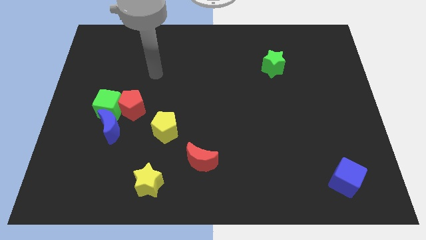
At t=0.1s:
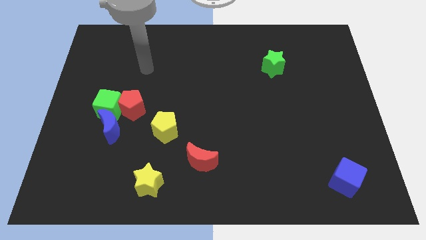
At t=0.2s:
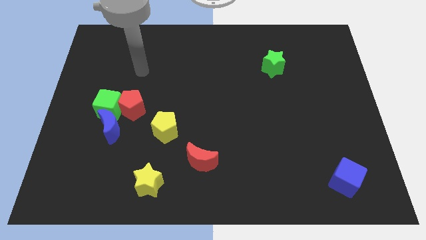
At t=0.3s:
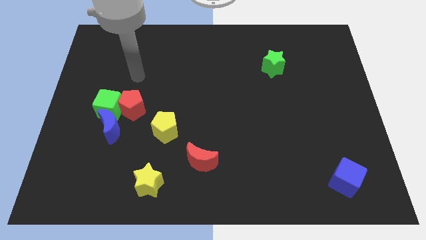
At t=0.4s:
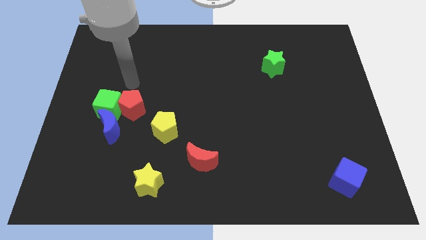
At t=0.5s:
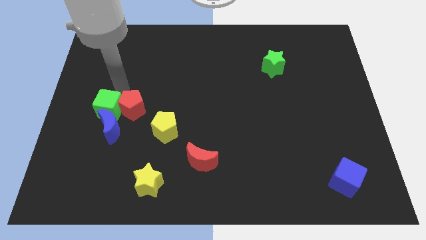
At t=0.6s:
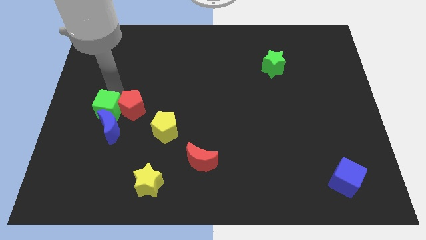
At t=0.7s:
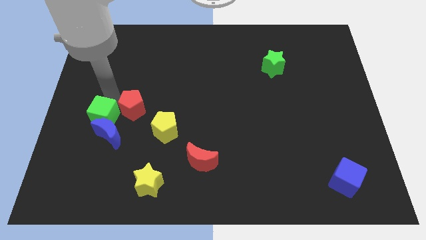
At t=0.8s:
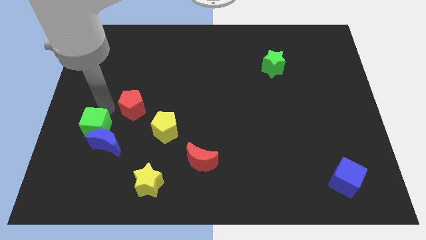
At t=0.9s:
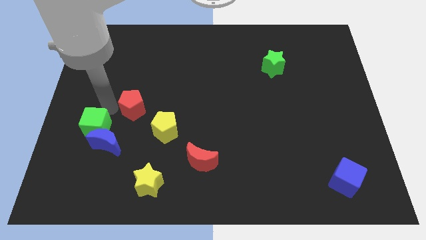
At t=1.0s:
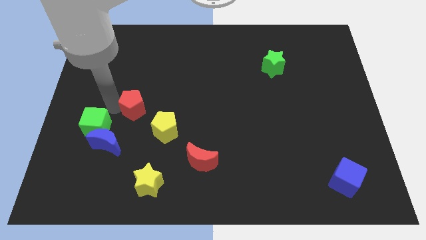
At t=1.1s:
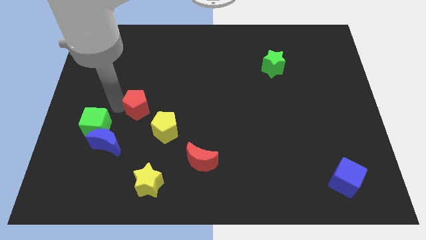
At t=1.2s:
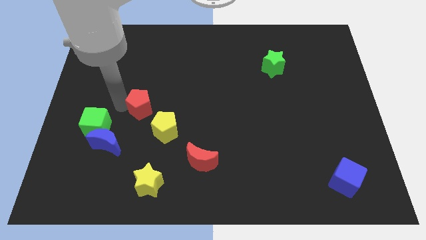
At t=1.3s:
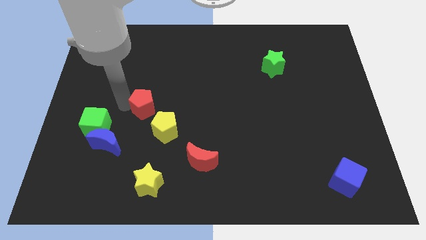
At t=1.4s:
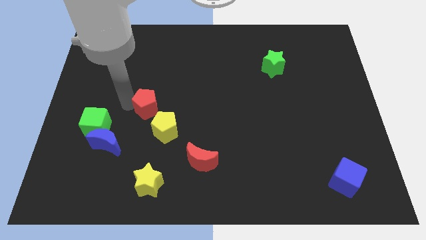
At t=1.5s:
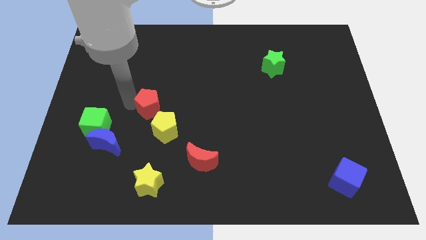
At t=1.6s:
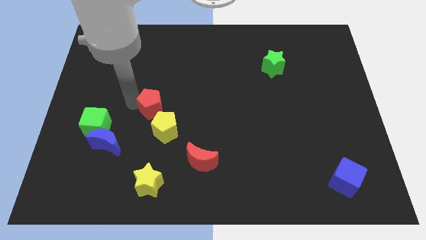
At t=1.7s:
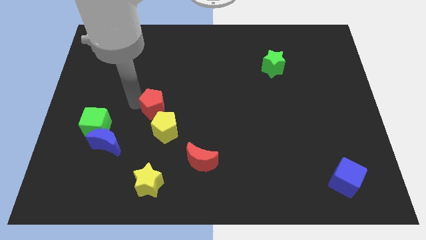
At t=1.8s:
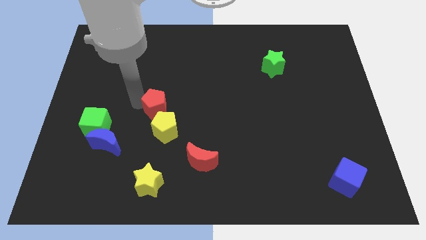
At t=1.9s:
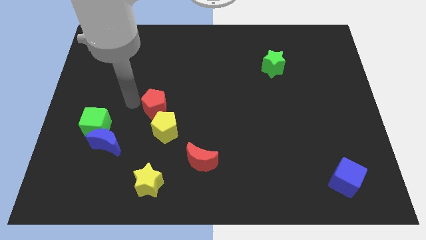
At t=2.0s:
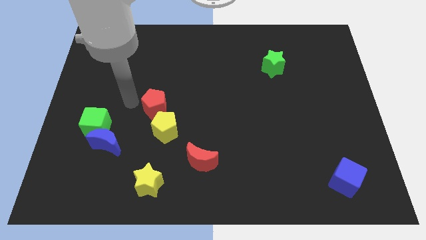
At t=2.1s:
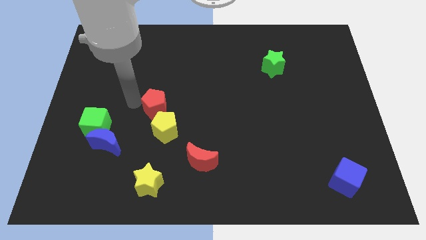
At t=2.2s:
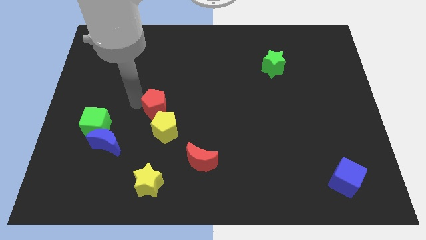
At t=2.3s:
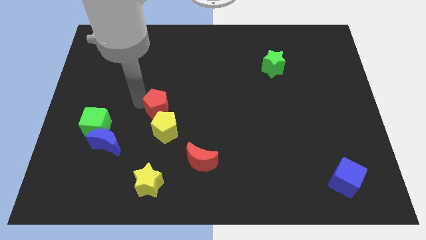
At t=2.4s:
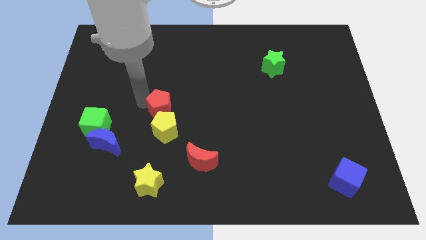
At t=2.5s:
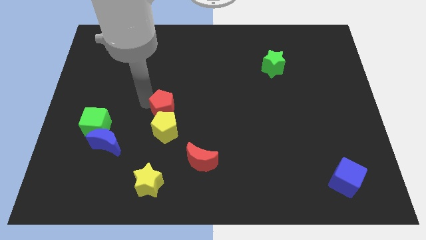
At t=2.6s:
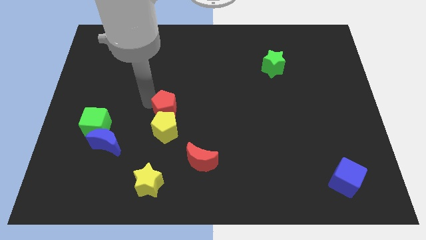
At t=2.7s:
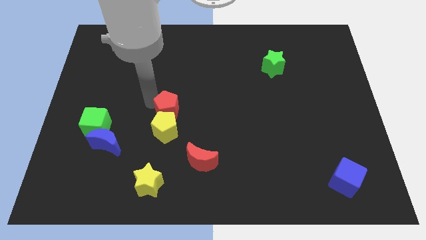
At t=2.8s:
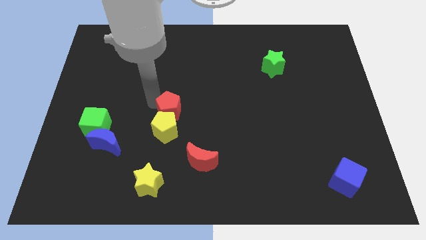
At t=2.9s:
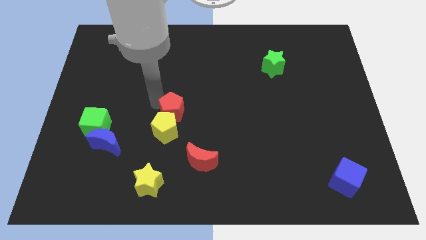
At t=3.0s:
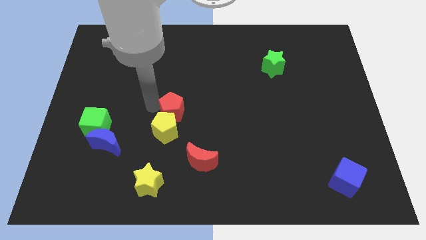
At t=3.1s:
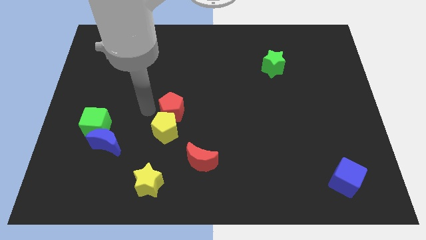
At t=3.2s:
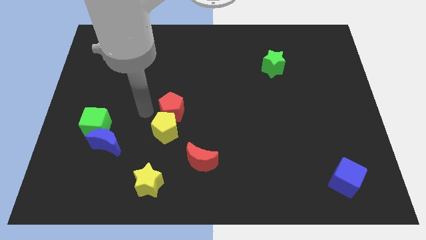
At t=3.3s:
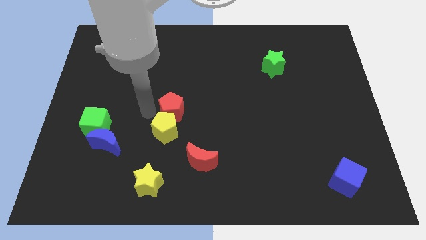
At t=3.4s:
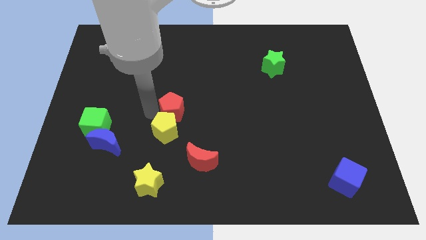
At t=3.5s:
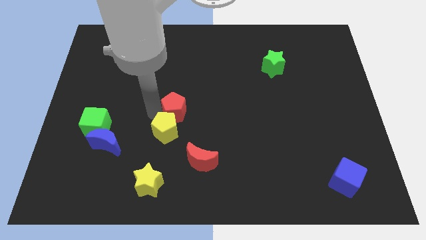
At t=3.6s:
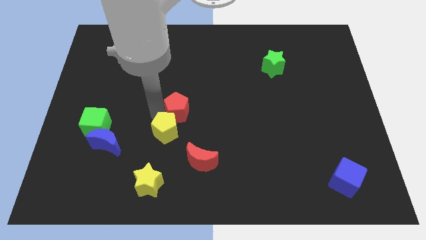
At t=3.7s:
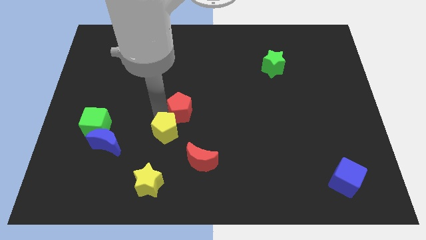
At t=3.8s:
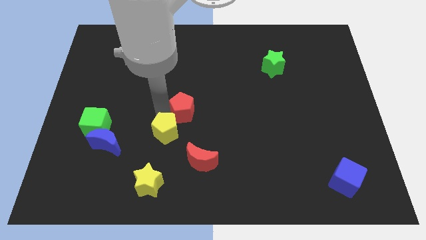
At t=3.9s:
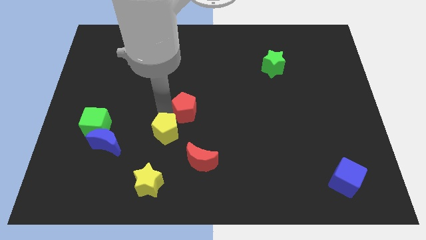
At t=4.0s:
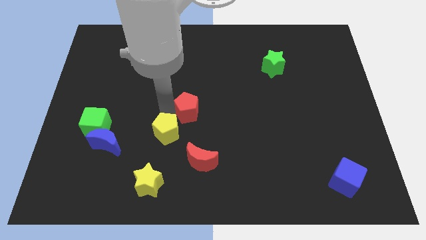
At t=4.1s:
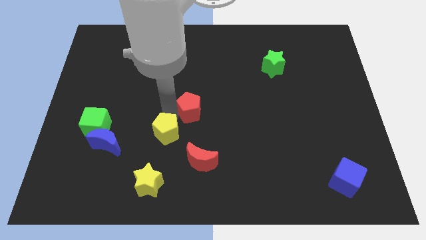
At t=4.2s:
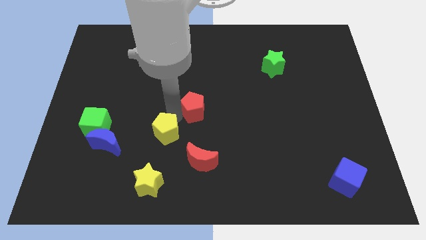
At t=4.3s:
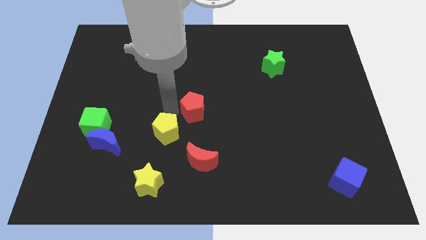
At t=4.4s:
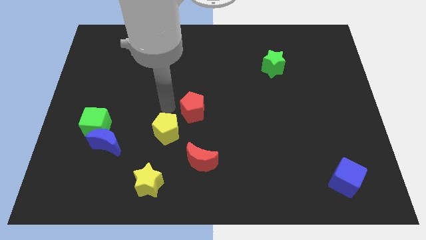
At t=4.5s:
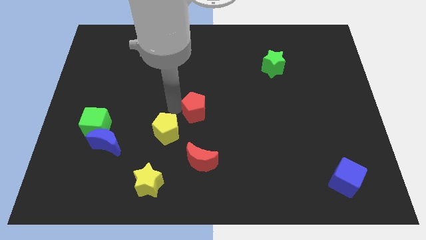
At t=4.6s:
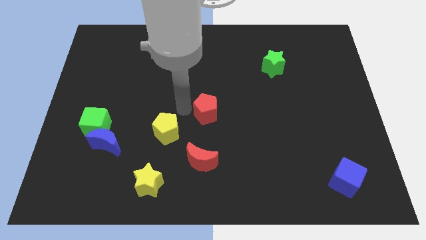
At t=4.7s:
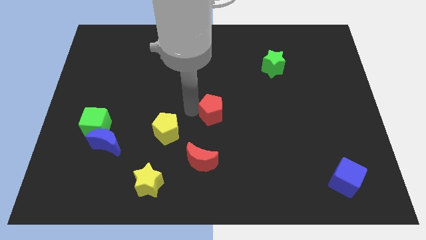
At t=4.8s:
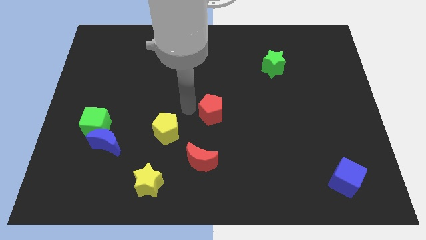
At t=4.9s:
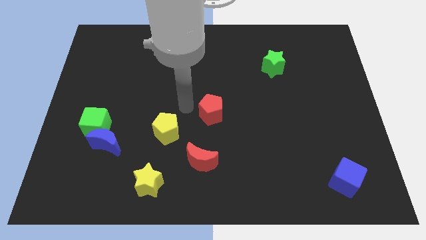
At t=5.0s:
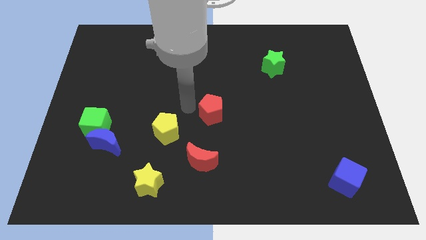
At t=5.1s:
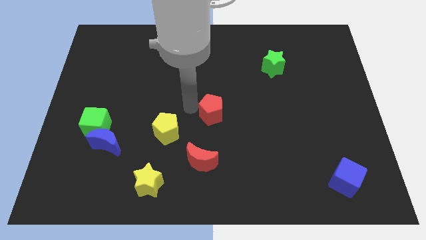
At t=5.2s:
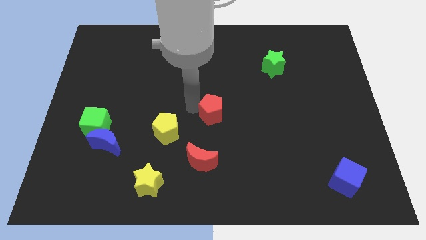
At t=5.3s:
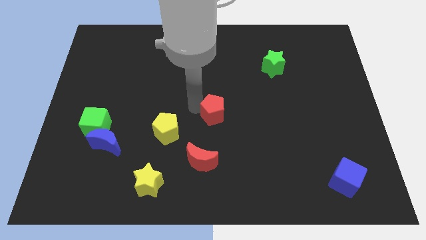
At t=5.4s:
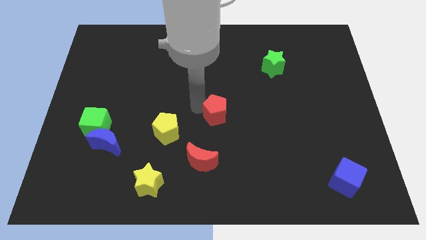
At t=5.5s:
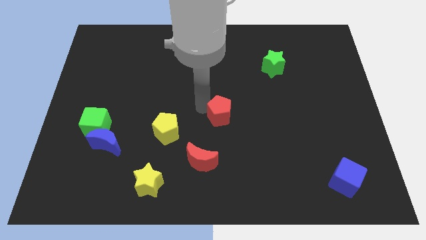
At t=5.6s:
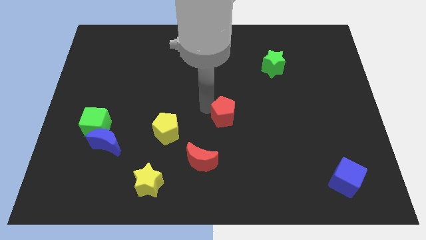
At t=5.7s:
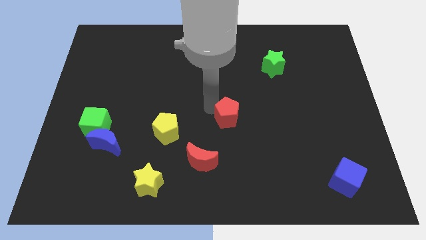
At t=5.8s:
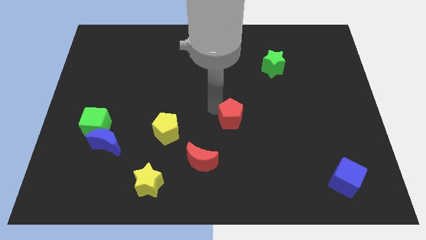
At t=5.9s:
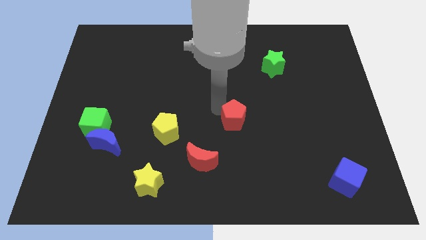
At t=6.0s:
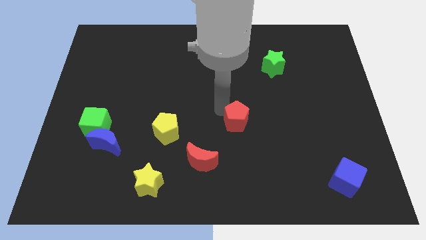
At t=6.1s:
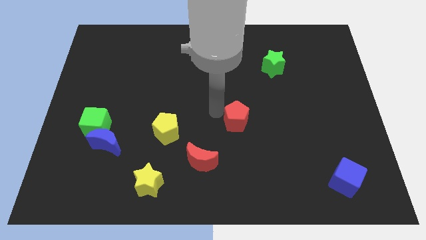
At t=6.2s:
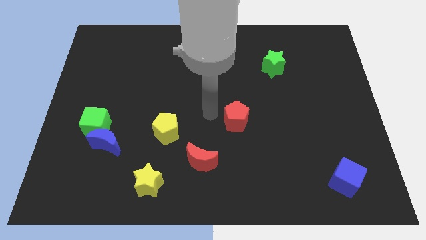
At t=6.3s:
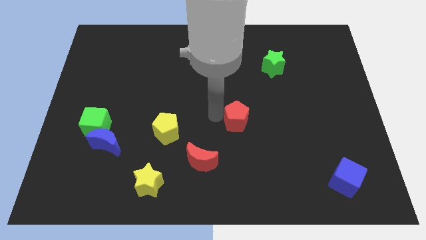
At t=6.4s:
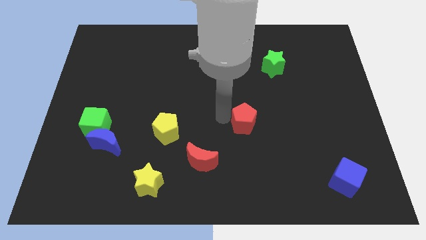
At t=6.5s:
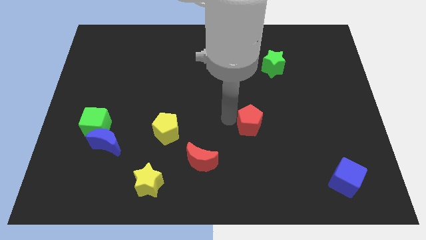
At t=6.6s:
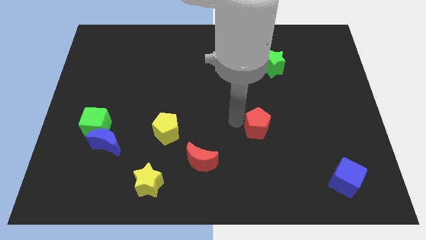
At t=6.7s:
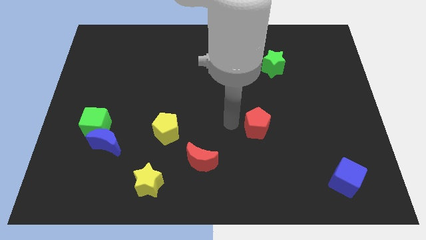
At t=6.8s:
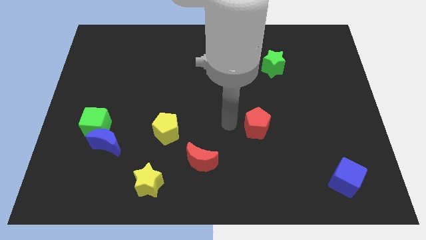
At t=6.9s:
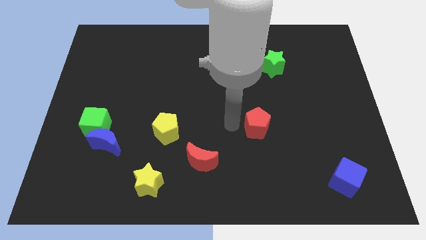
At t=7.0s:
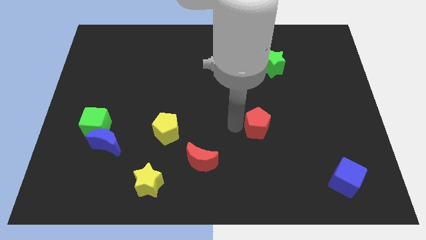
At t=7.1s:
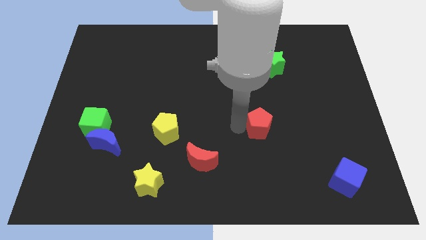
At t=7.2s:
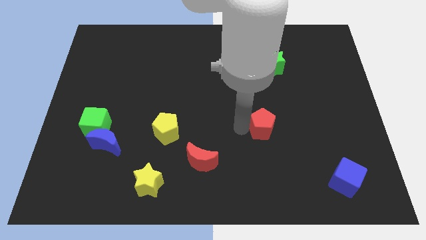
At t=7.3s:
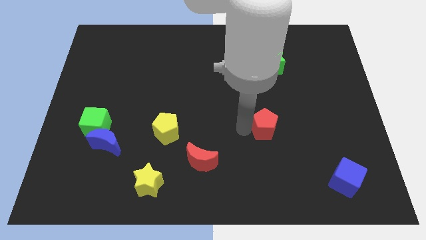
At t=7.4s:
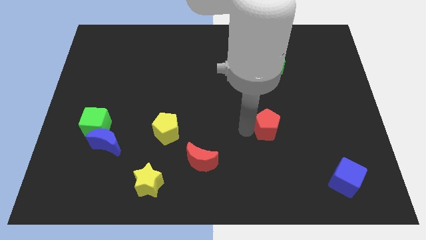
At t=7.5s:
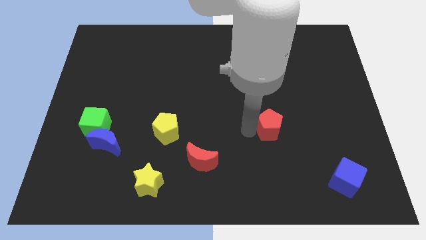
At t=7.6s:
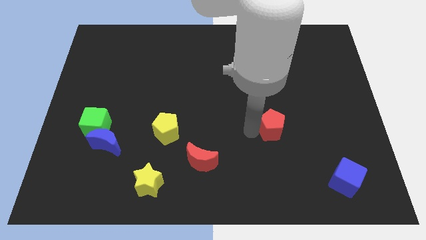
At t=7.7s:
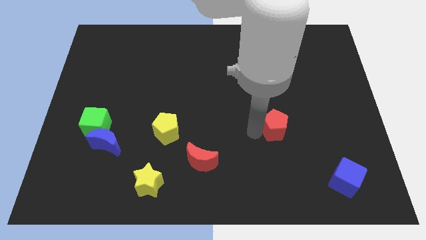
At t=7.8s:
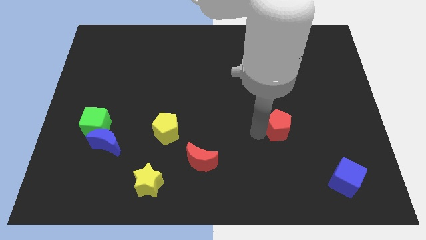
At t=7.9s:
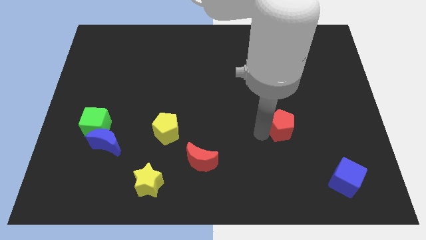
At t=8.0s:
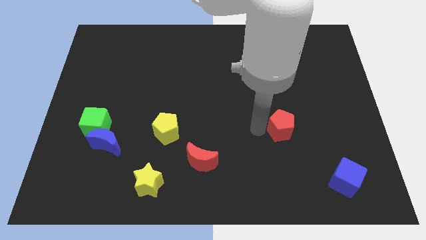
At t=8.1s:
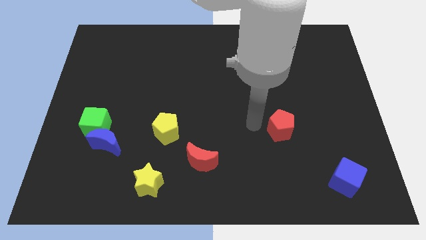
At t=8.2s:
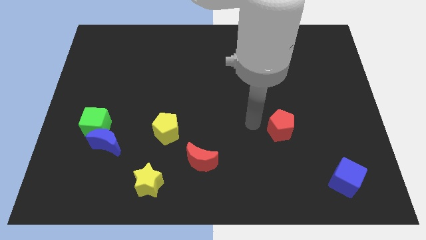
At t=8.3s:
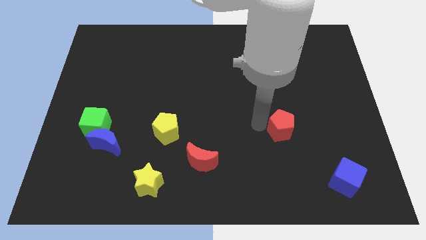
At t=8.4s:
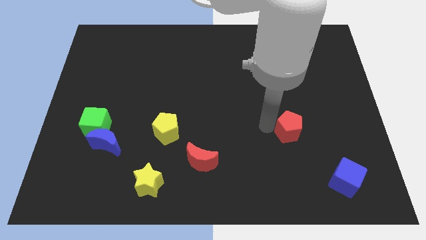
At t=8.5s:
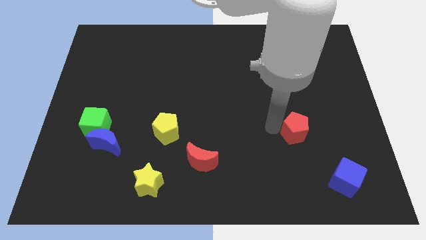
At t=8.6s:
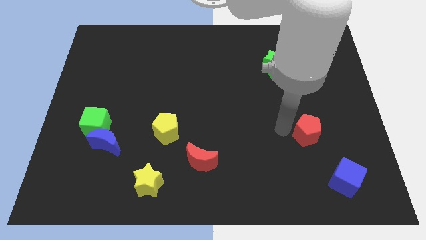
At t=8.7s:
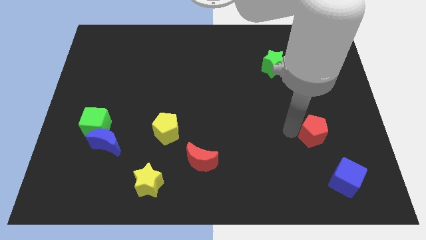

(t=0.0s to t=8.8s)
slide the red pentagon to the top of the blue cube
